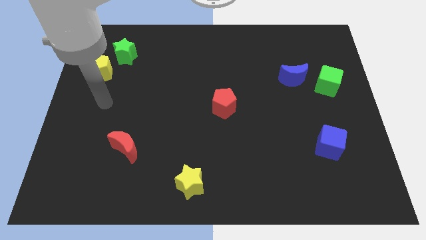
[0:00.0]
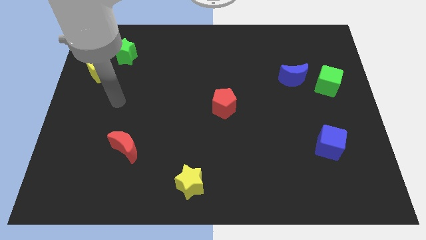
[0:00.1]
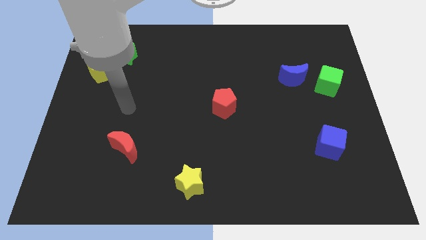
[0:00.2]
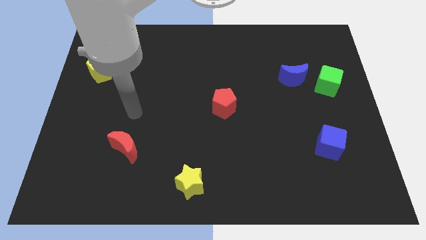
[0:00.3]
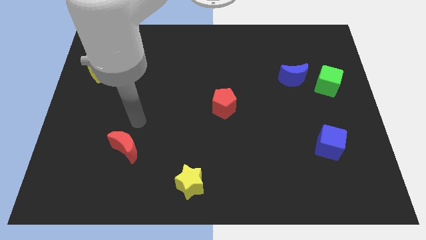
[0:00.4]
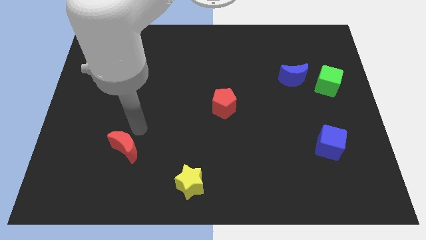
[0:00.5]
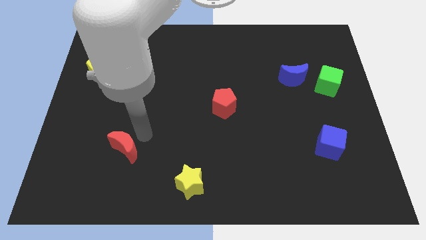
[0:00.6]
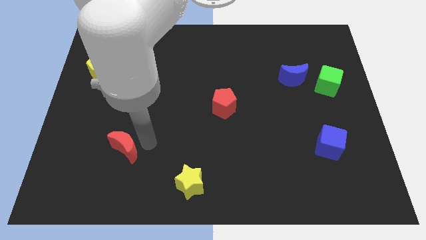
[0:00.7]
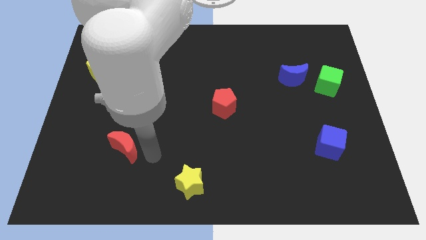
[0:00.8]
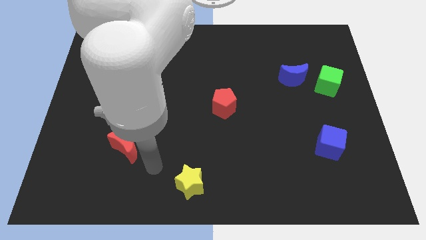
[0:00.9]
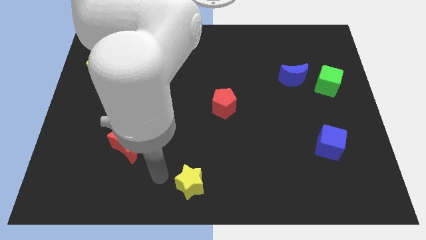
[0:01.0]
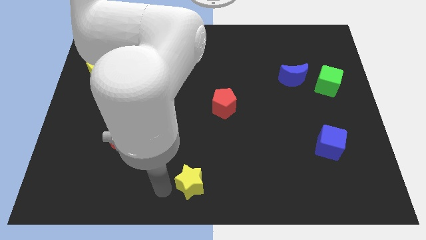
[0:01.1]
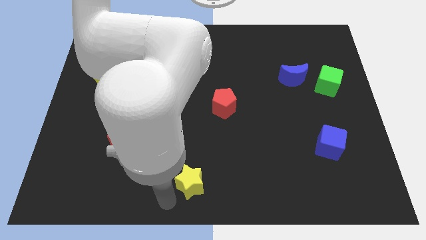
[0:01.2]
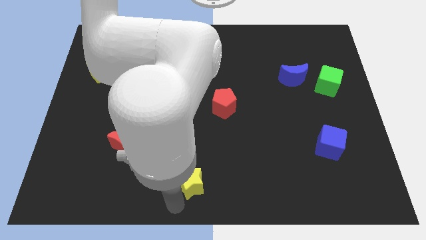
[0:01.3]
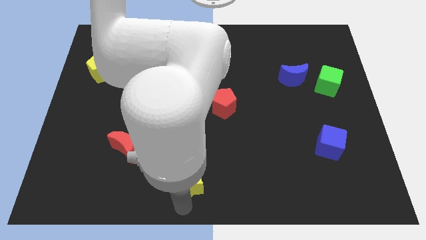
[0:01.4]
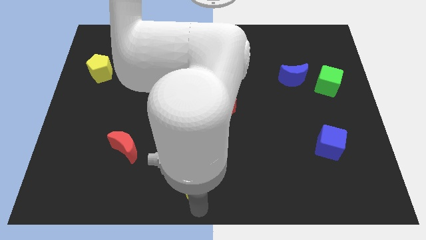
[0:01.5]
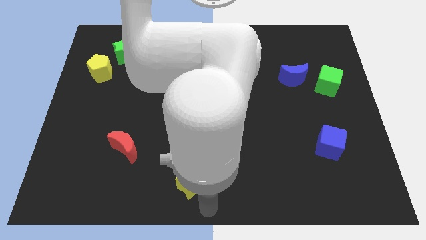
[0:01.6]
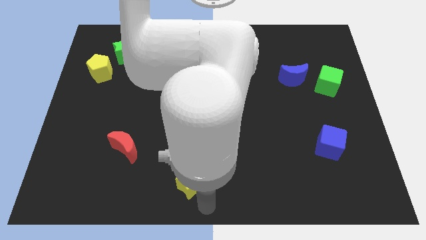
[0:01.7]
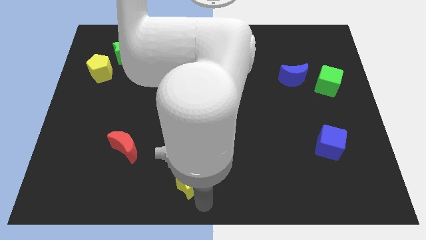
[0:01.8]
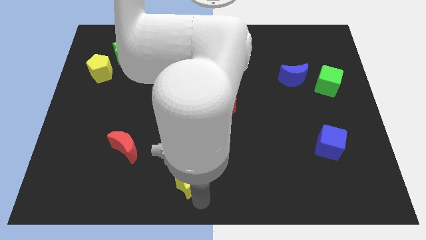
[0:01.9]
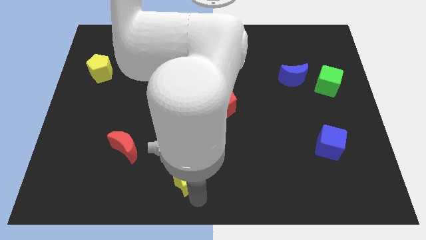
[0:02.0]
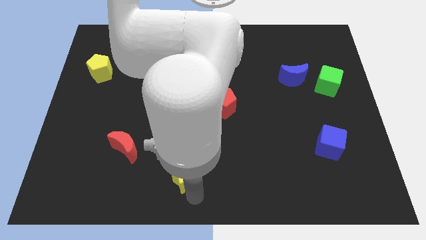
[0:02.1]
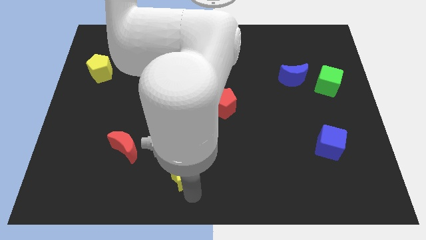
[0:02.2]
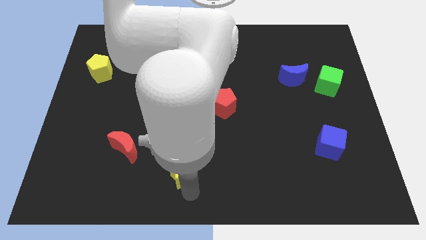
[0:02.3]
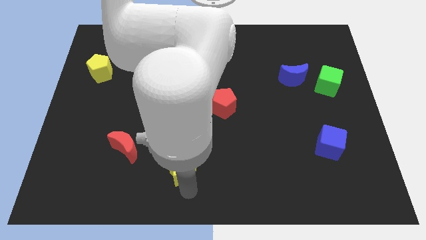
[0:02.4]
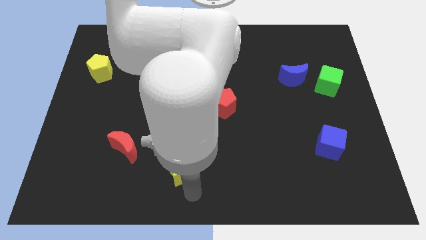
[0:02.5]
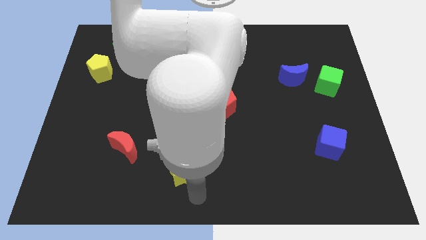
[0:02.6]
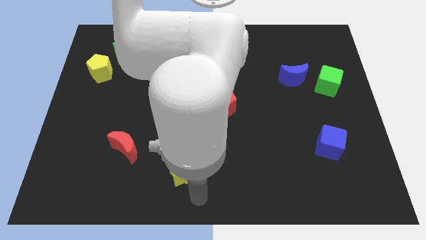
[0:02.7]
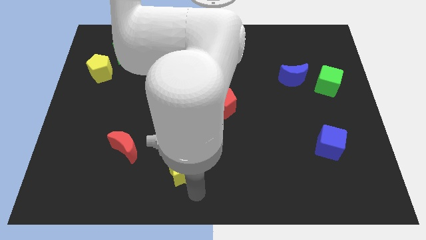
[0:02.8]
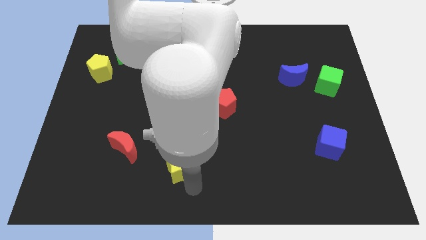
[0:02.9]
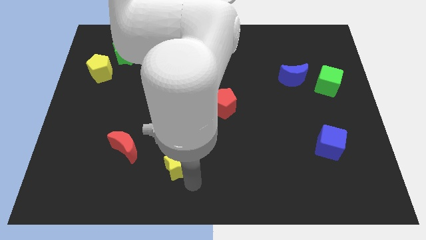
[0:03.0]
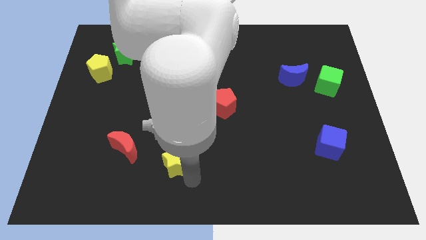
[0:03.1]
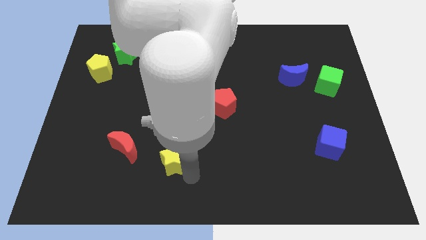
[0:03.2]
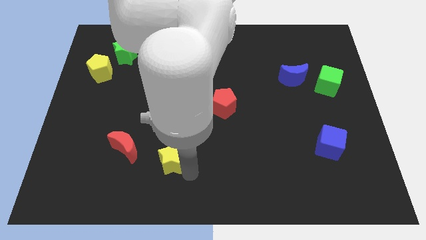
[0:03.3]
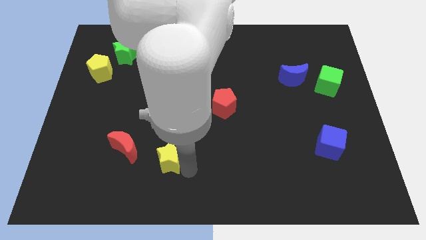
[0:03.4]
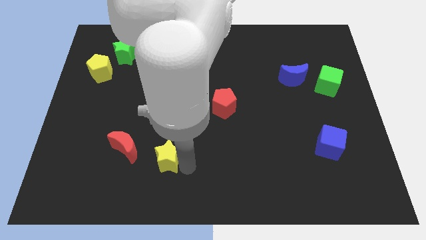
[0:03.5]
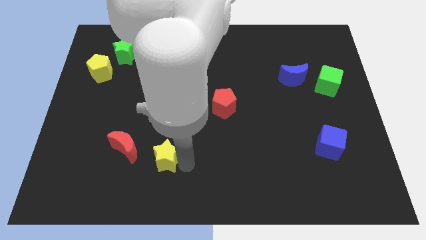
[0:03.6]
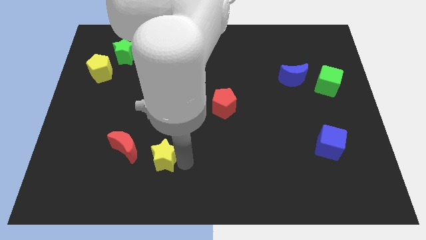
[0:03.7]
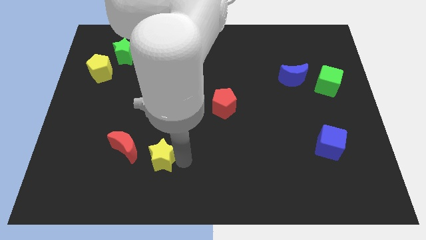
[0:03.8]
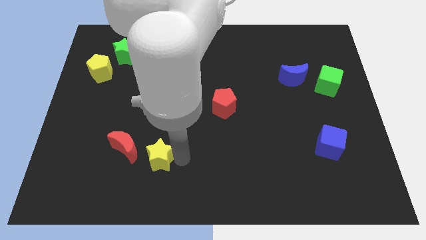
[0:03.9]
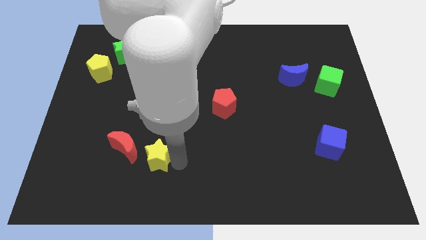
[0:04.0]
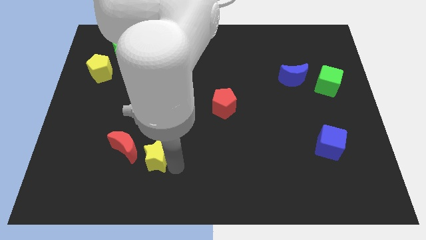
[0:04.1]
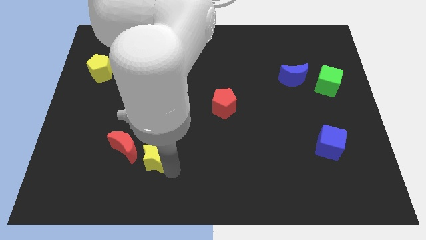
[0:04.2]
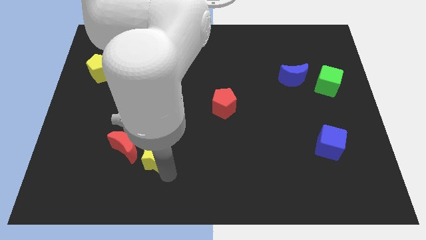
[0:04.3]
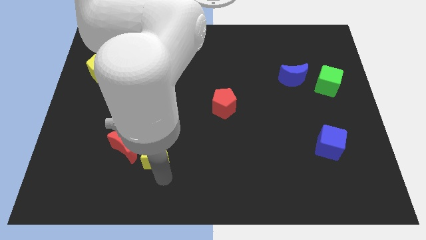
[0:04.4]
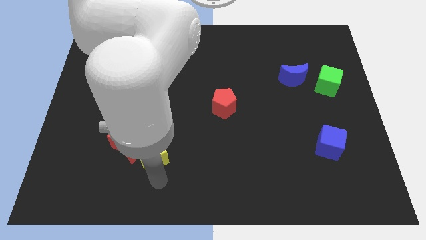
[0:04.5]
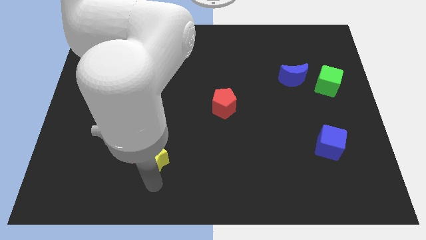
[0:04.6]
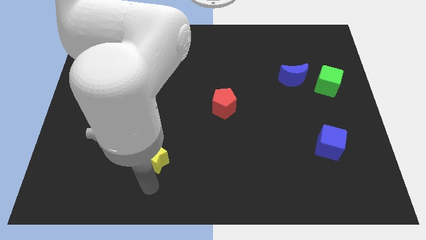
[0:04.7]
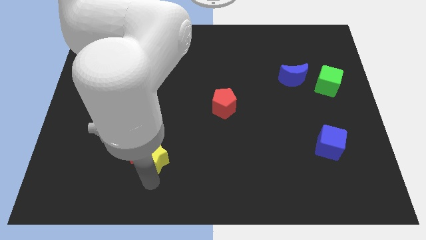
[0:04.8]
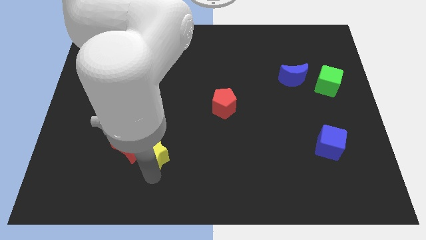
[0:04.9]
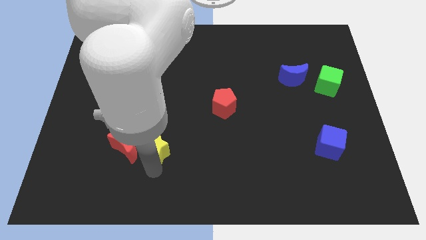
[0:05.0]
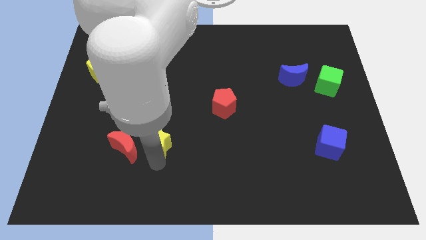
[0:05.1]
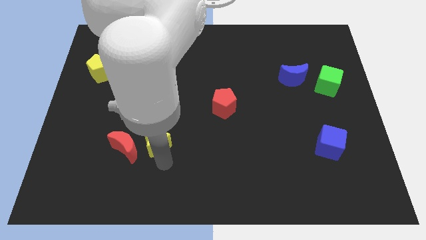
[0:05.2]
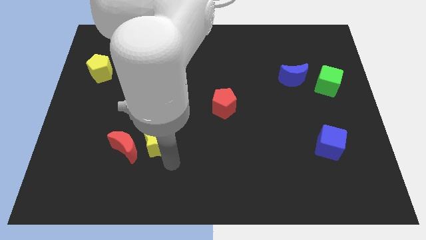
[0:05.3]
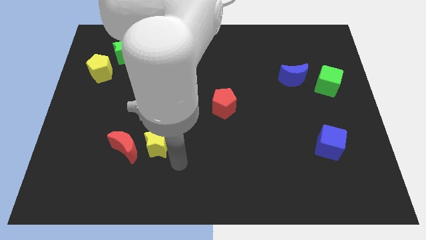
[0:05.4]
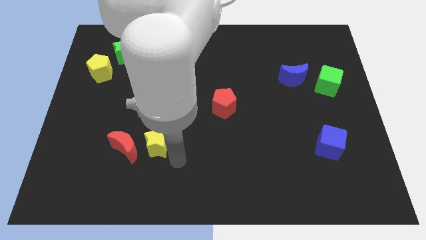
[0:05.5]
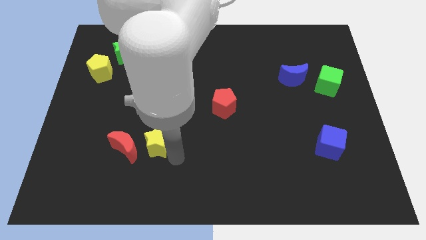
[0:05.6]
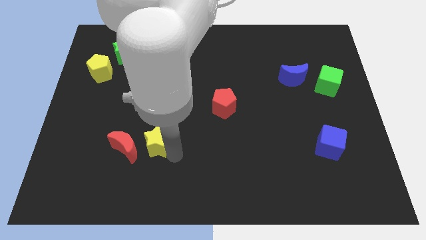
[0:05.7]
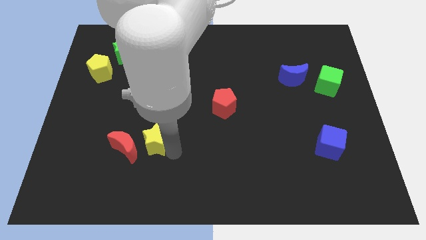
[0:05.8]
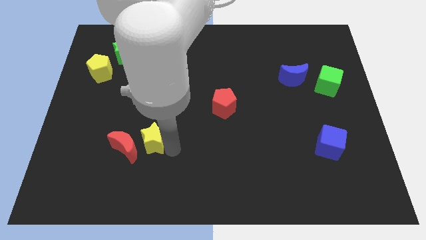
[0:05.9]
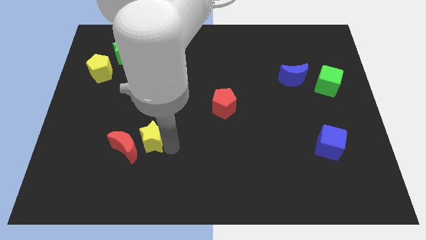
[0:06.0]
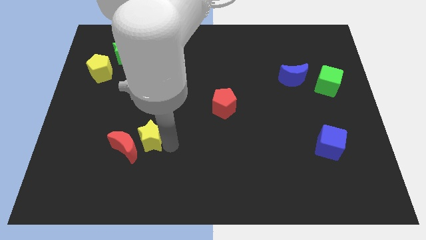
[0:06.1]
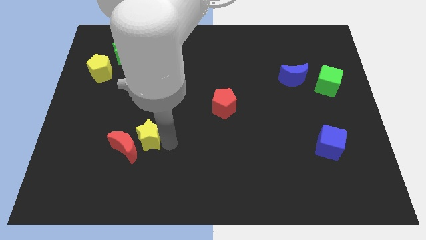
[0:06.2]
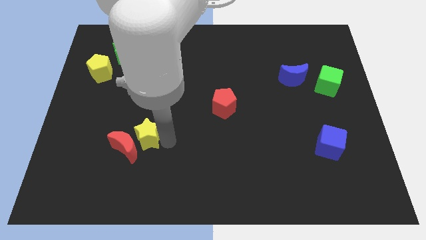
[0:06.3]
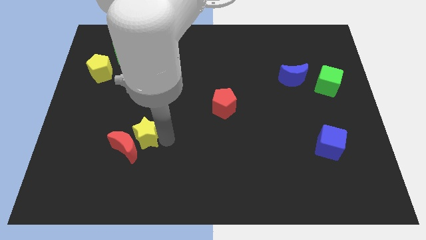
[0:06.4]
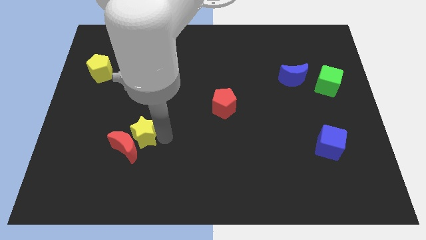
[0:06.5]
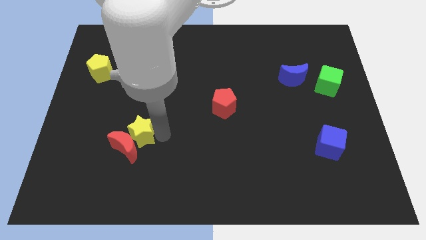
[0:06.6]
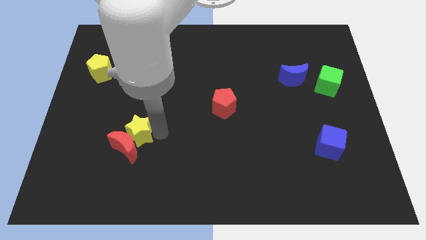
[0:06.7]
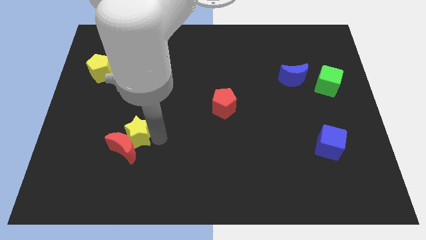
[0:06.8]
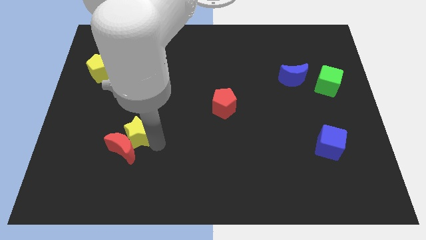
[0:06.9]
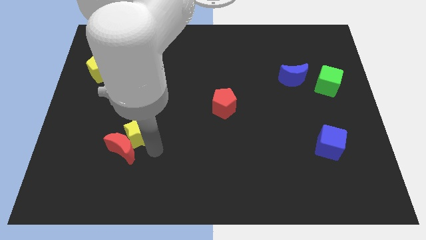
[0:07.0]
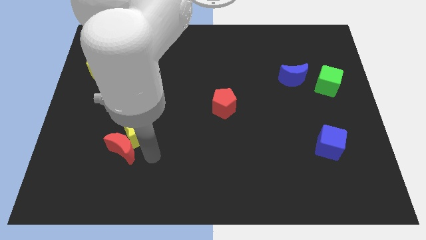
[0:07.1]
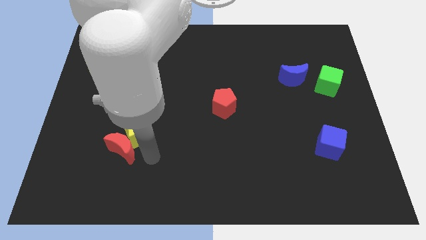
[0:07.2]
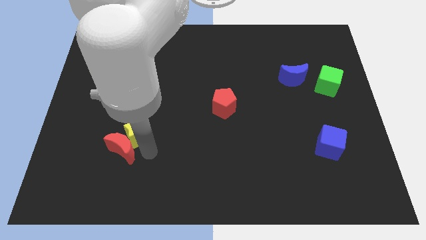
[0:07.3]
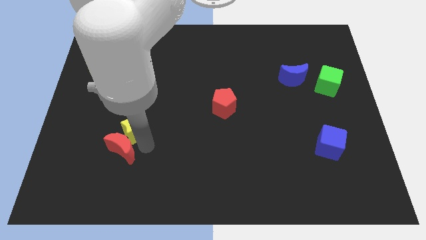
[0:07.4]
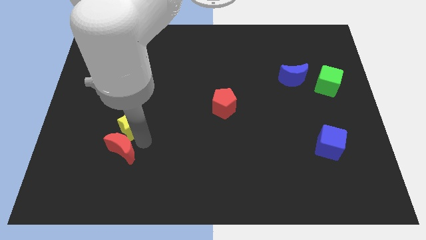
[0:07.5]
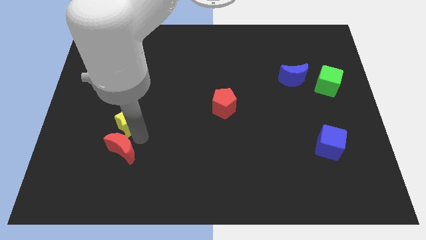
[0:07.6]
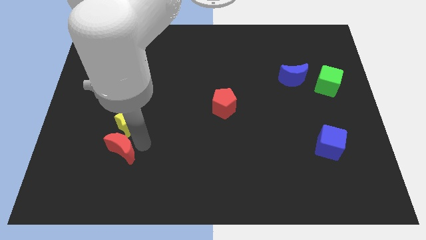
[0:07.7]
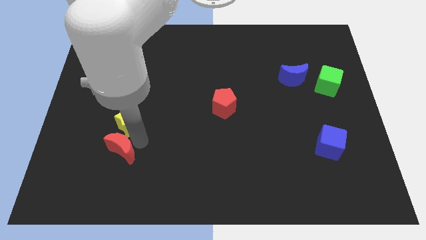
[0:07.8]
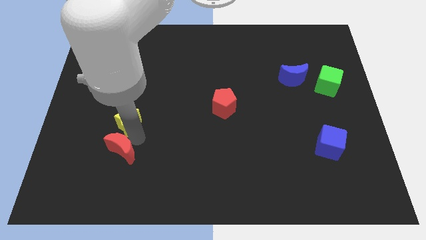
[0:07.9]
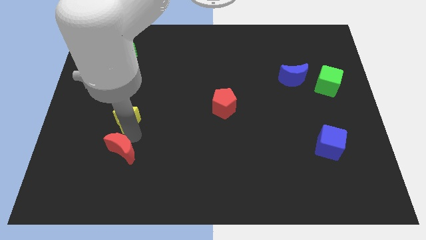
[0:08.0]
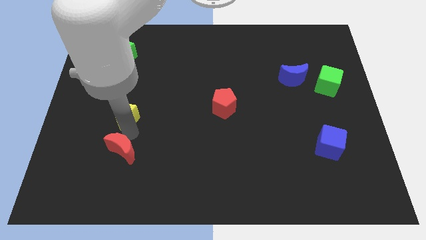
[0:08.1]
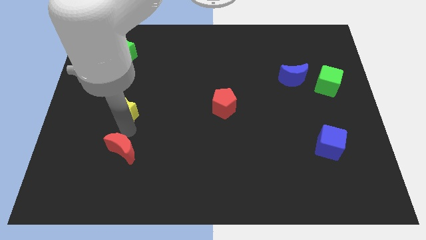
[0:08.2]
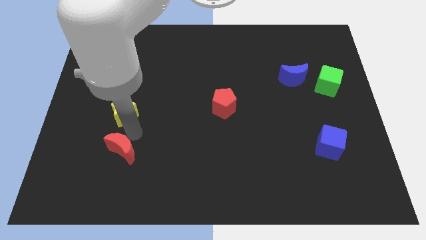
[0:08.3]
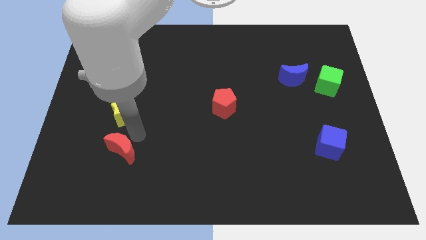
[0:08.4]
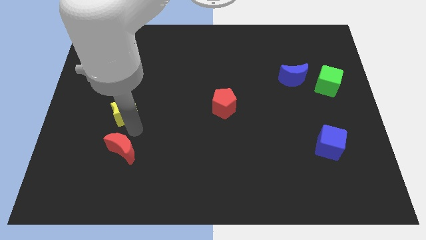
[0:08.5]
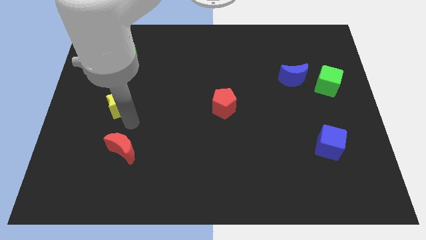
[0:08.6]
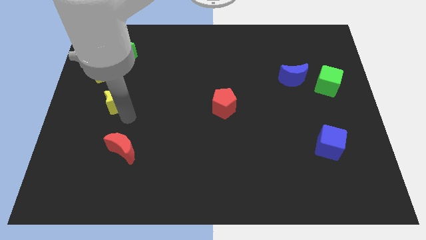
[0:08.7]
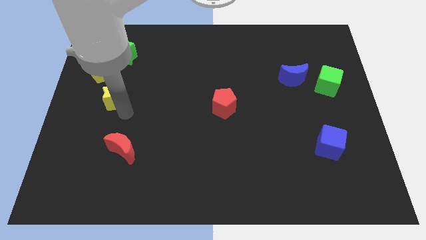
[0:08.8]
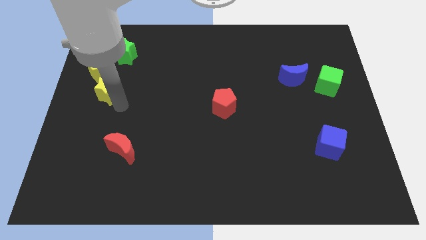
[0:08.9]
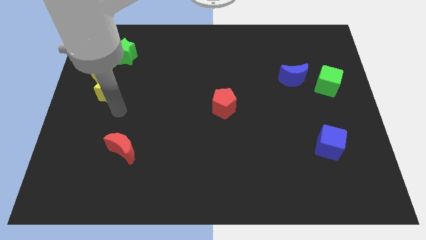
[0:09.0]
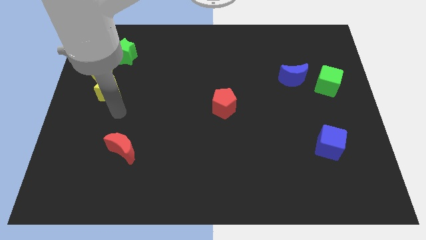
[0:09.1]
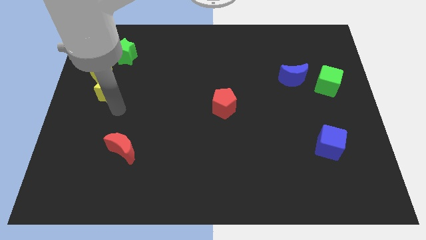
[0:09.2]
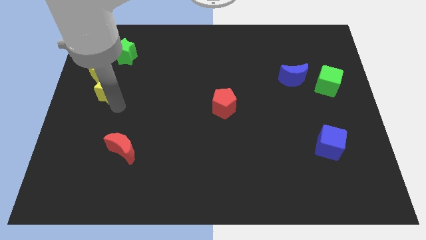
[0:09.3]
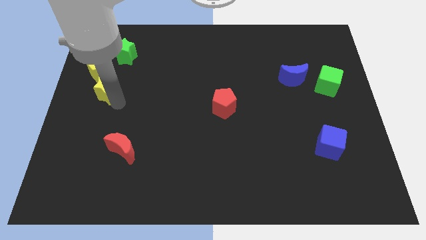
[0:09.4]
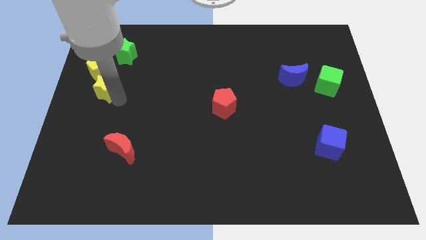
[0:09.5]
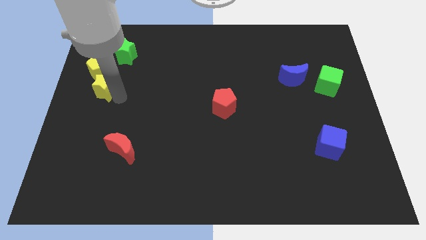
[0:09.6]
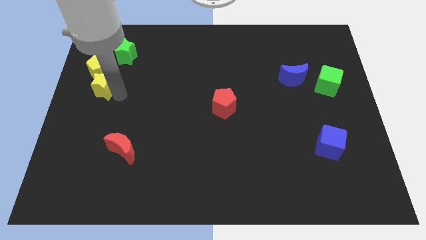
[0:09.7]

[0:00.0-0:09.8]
slide the yellow star close to the yellow pentagon
